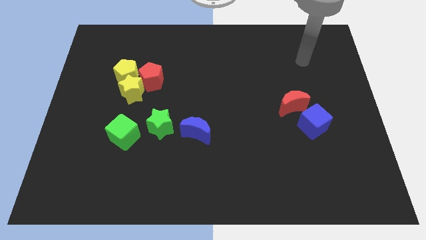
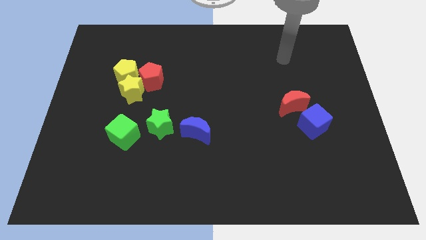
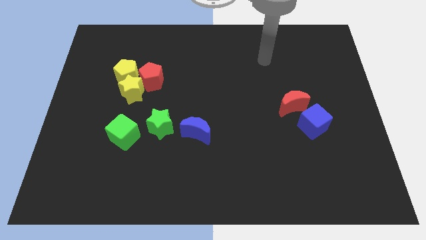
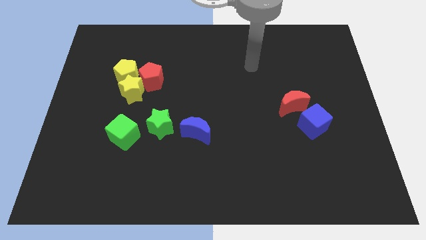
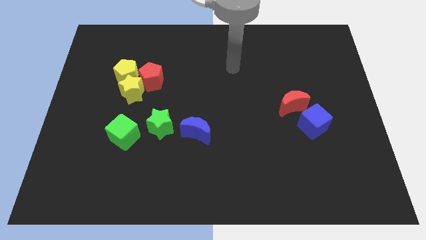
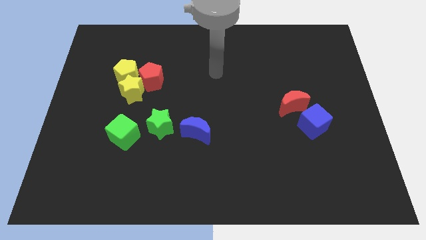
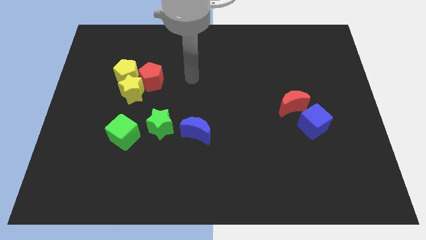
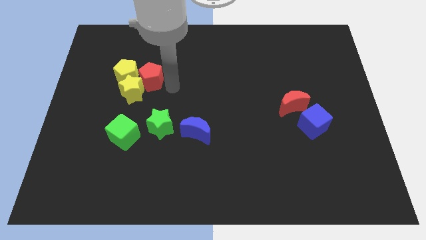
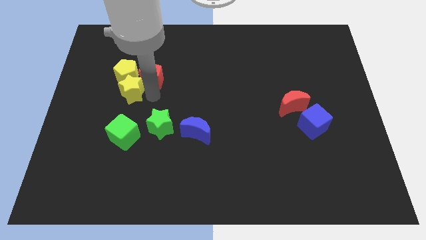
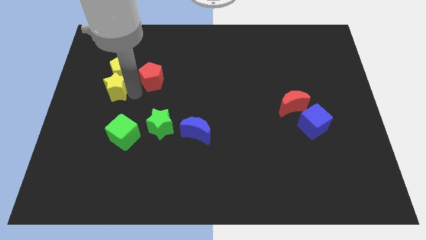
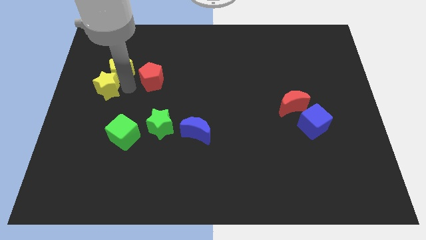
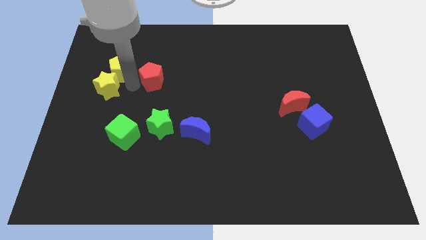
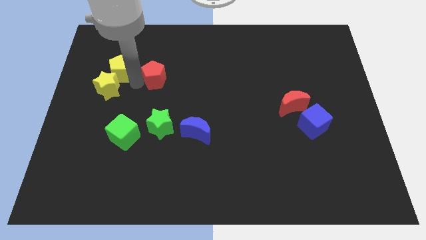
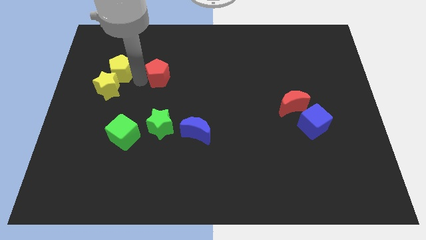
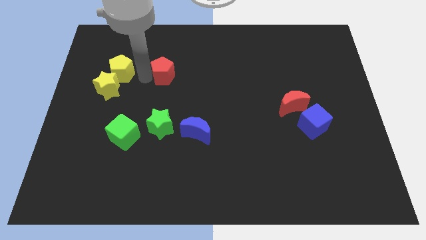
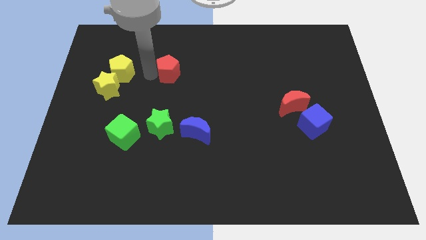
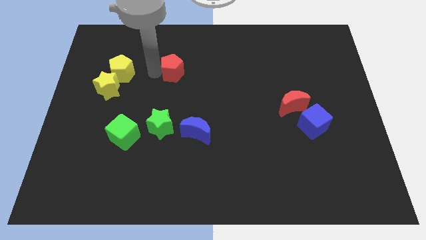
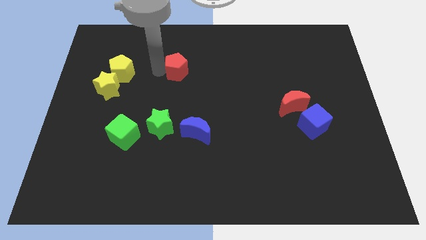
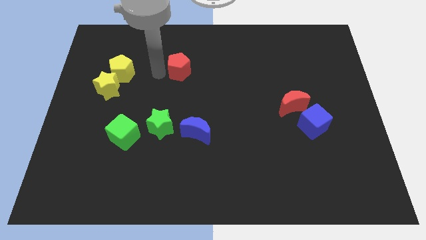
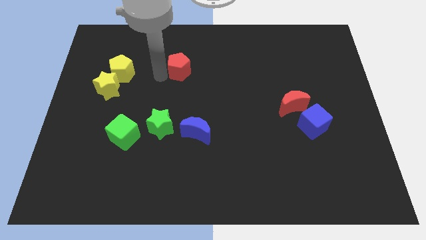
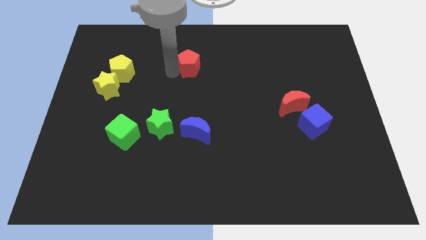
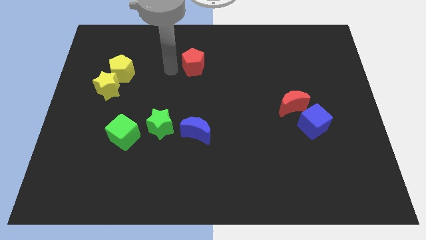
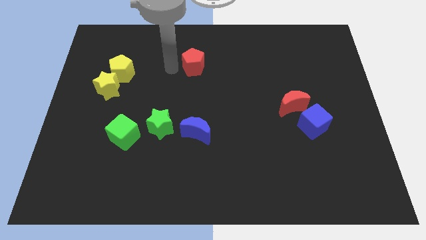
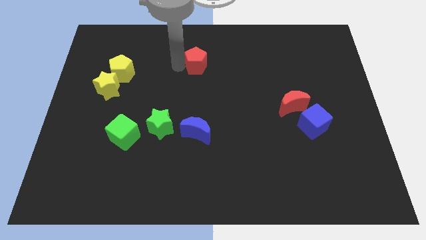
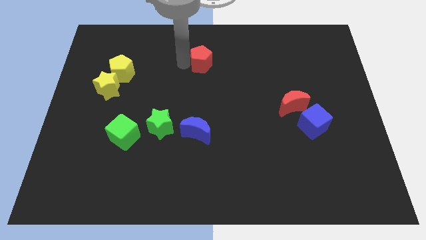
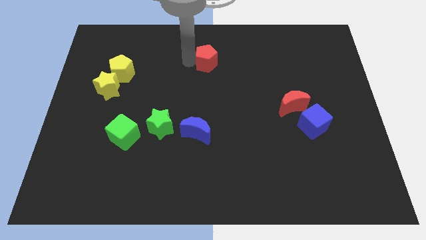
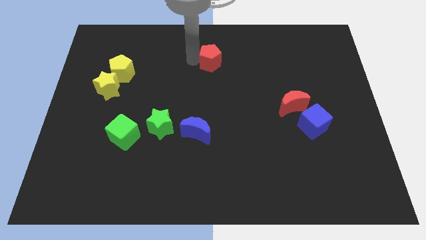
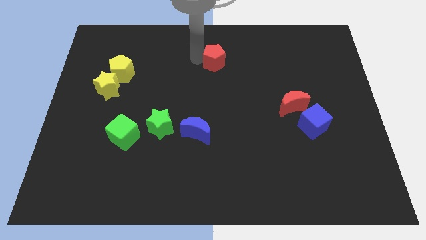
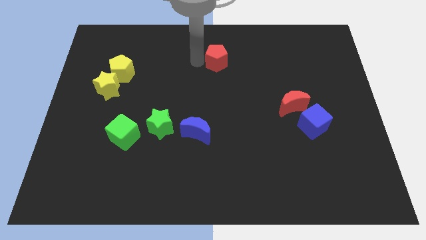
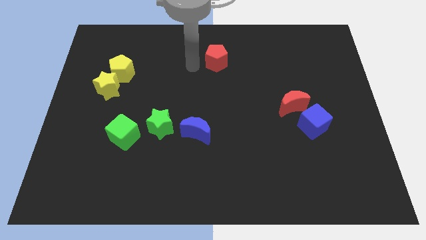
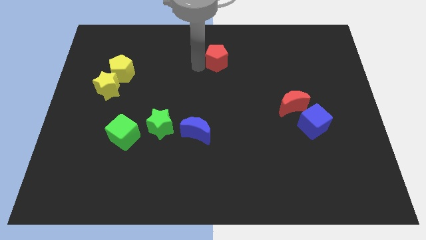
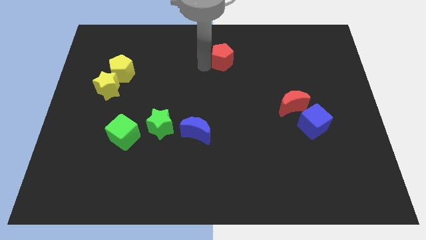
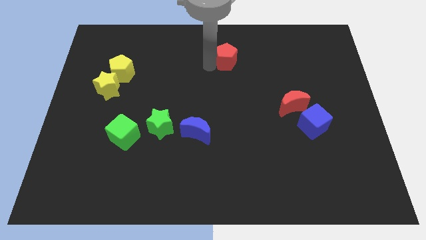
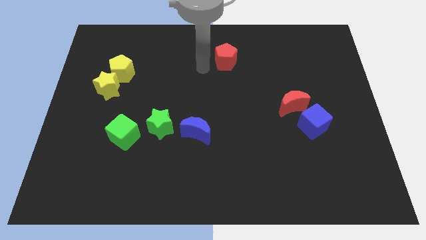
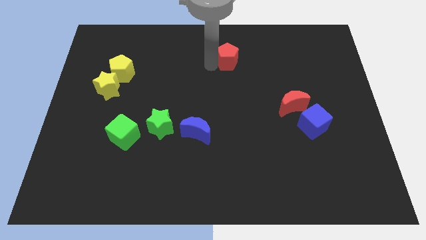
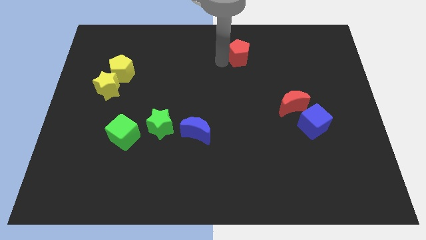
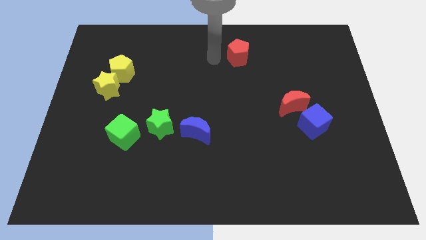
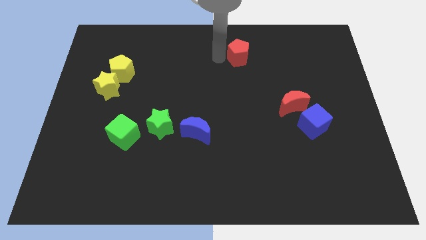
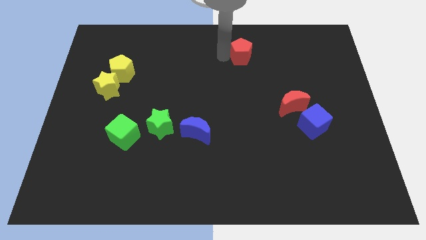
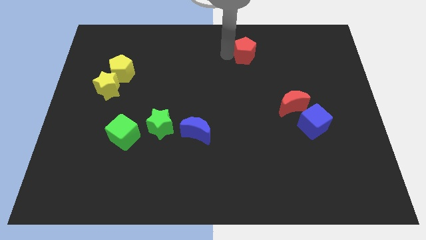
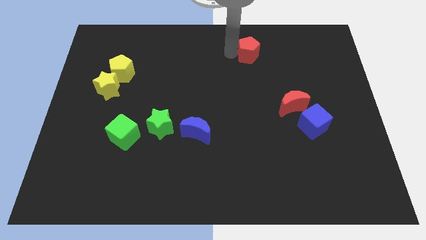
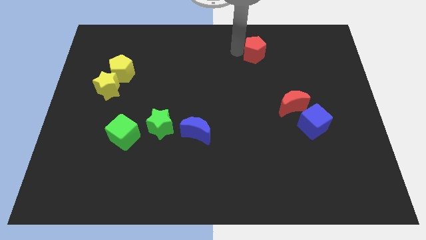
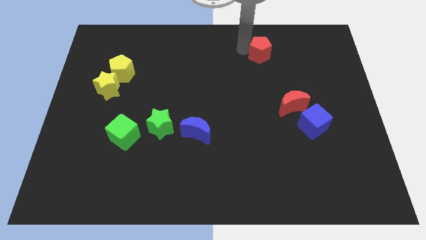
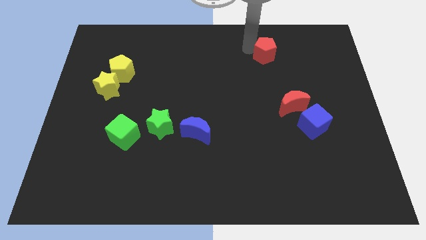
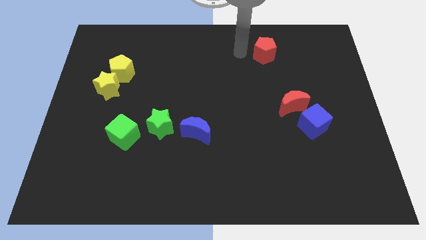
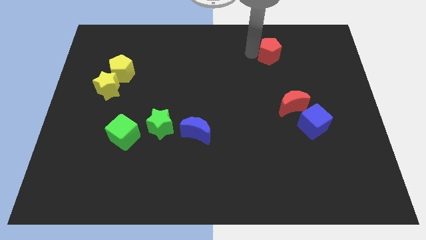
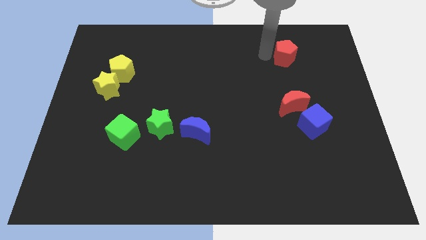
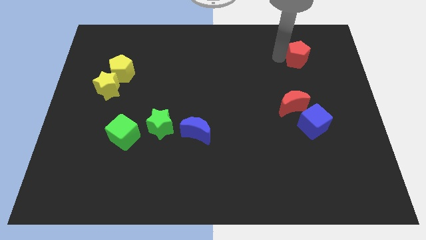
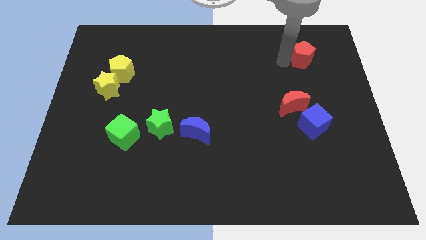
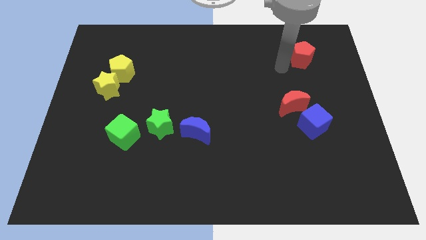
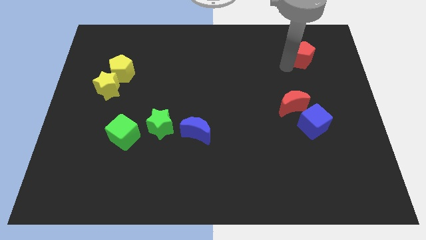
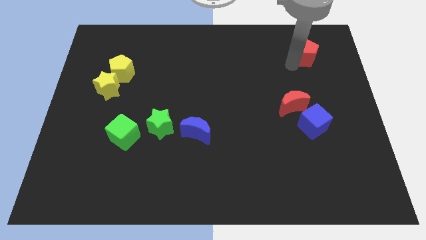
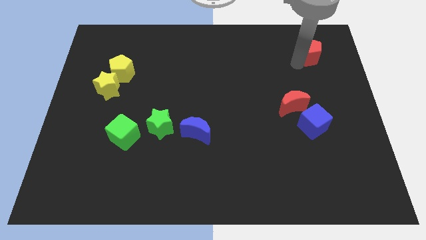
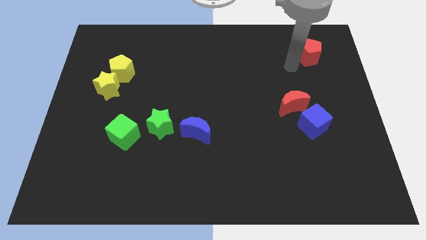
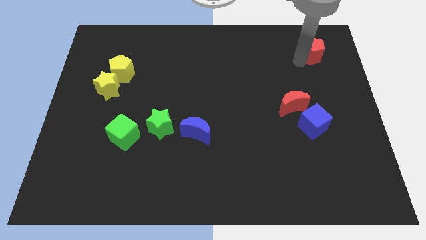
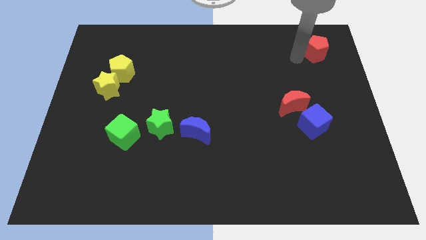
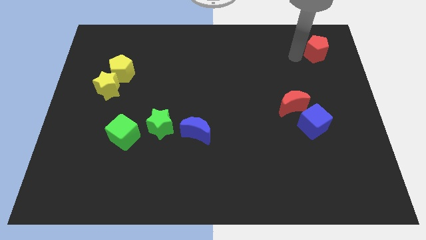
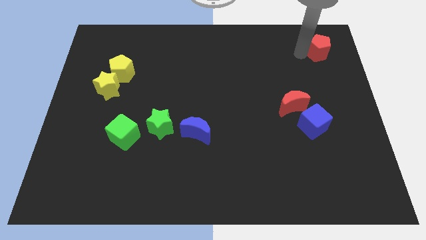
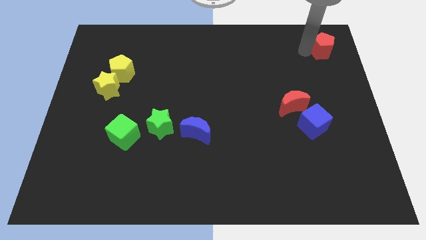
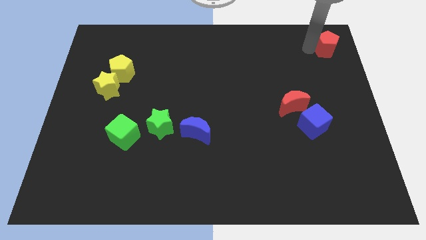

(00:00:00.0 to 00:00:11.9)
move the red pentagon to the top right of the board

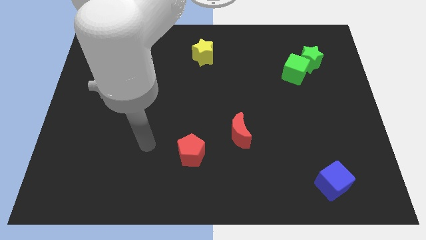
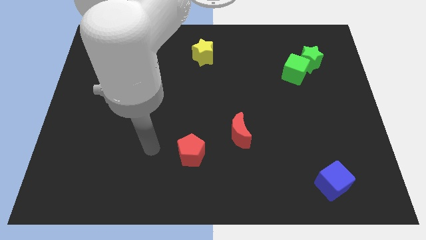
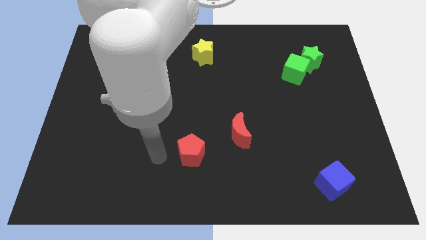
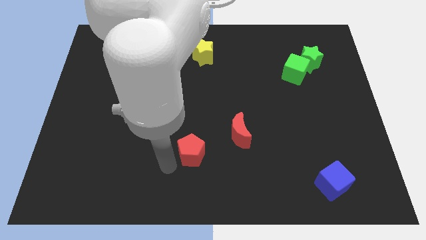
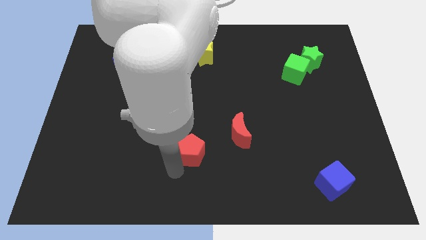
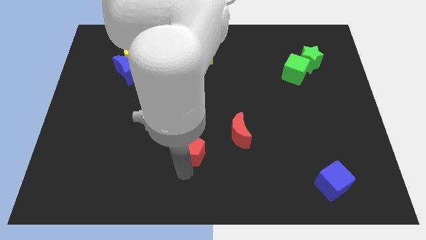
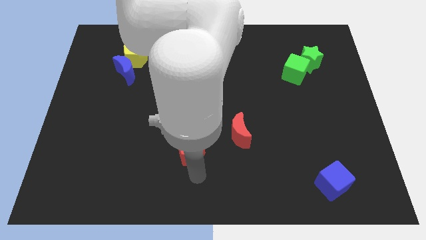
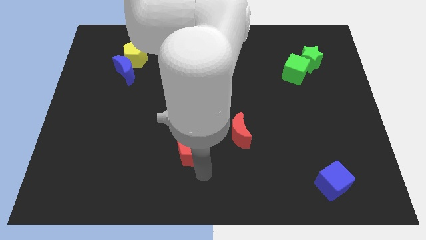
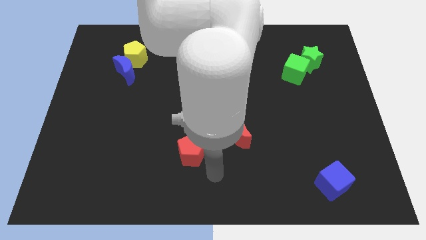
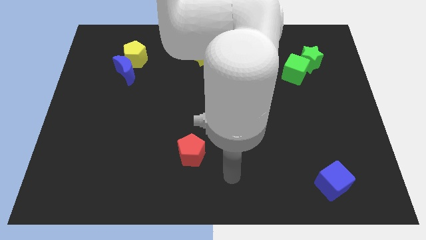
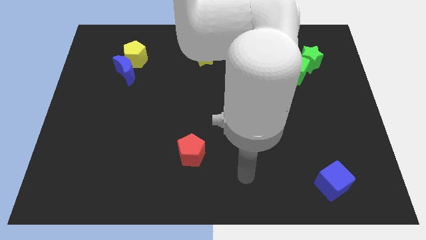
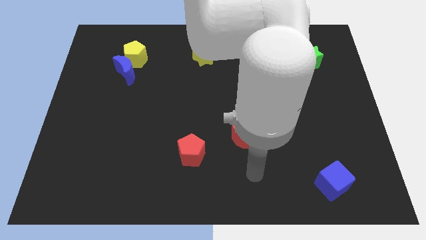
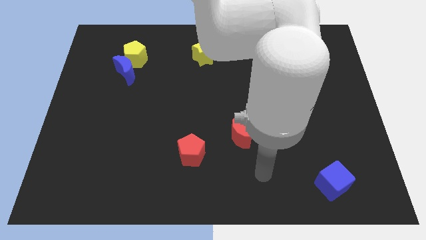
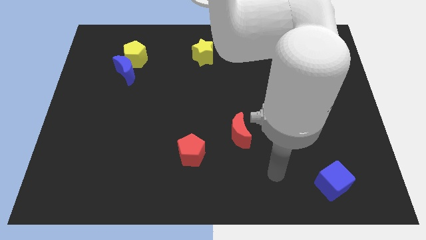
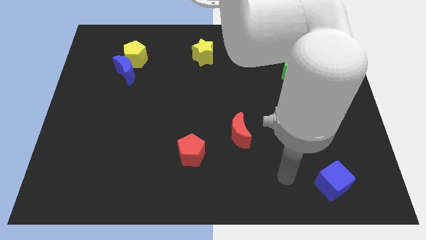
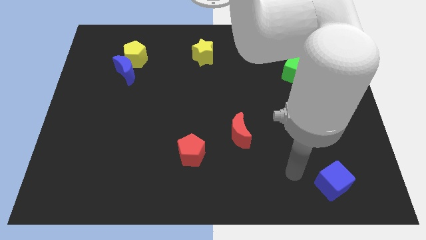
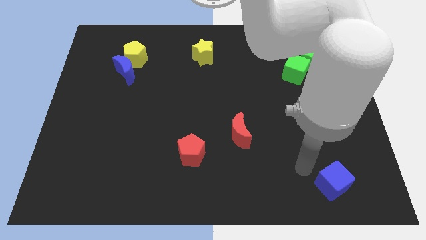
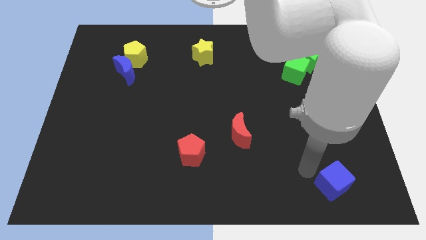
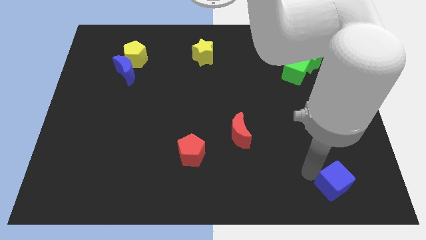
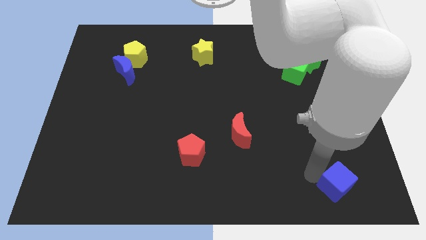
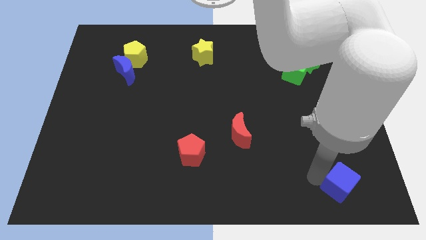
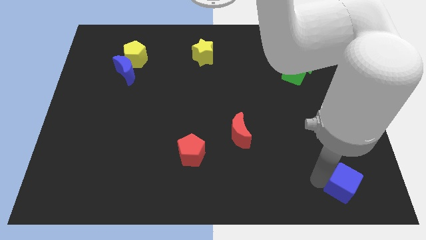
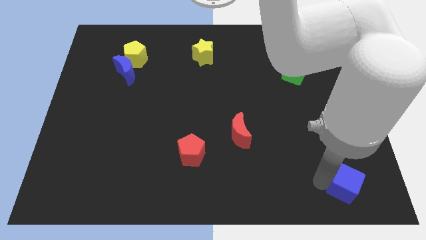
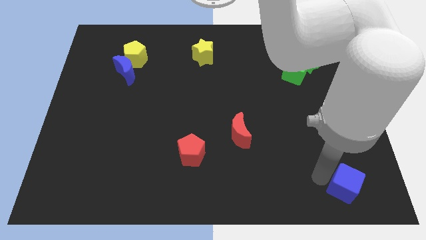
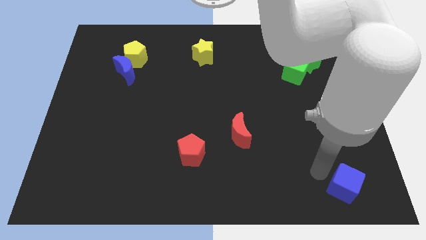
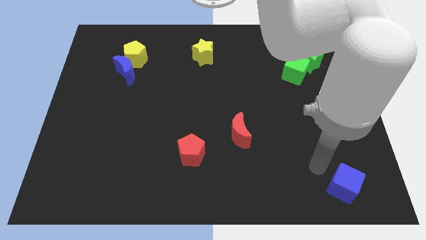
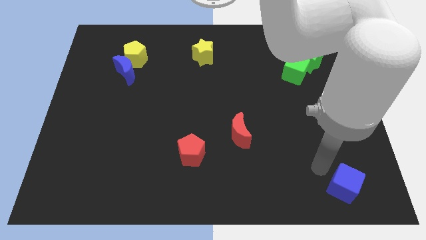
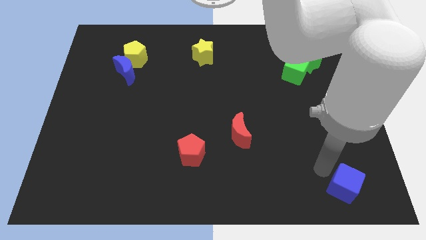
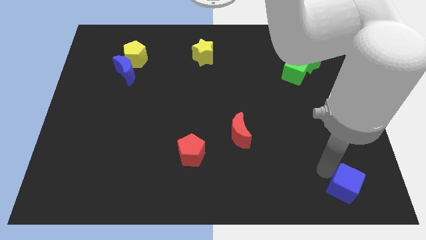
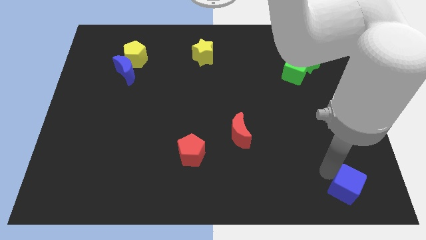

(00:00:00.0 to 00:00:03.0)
slide the blue cube to the lower right corner
